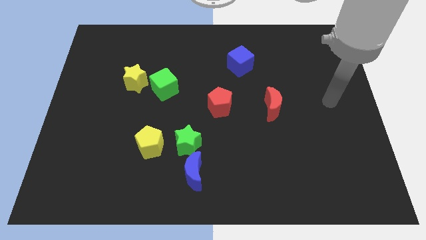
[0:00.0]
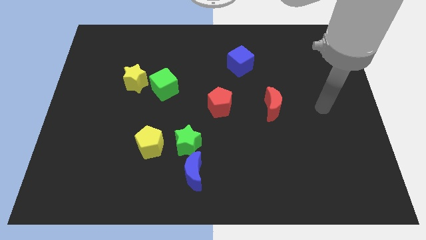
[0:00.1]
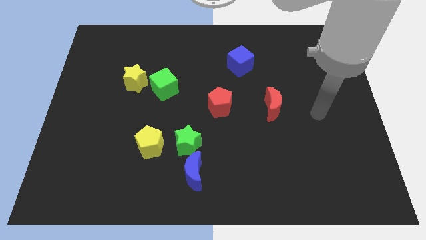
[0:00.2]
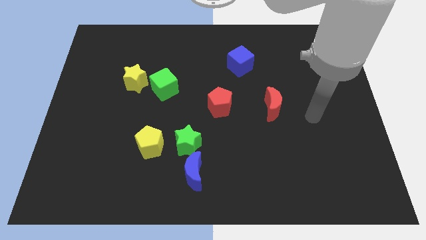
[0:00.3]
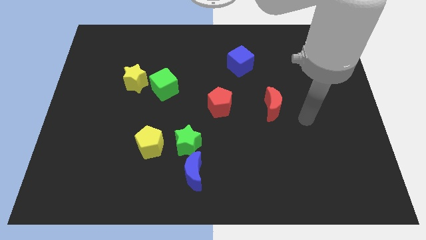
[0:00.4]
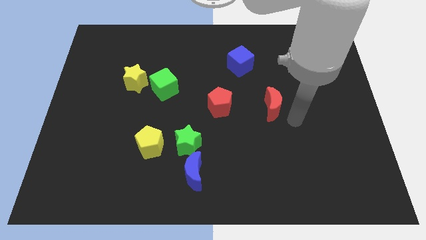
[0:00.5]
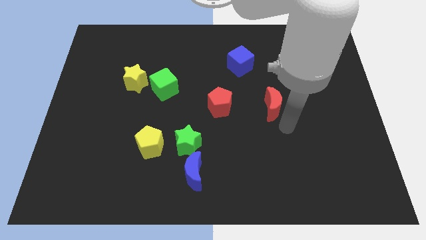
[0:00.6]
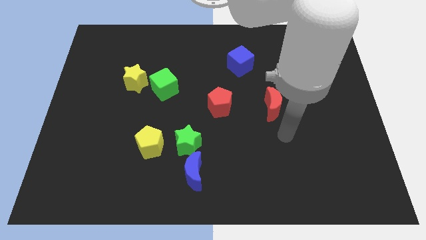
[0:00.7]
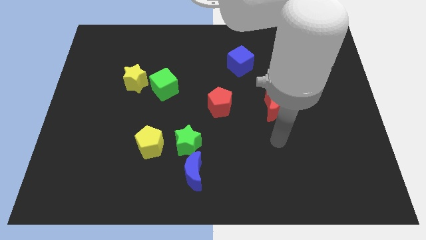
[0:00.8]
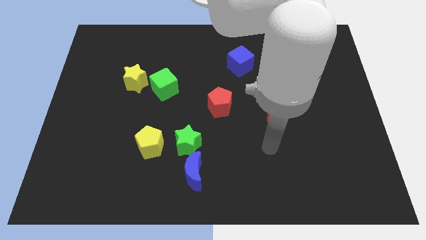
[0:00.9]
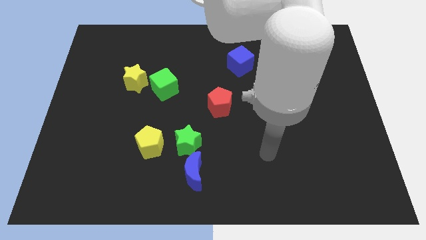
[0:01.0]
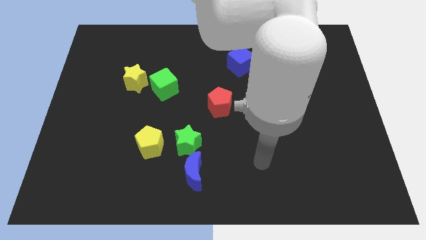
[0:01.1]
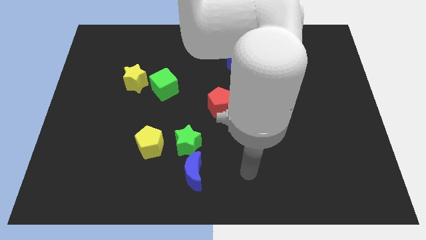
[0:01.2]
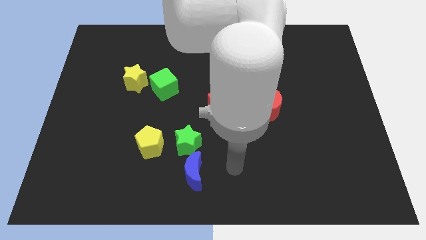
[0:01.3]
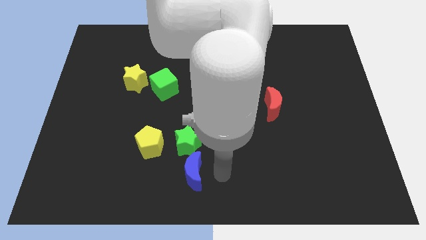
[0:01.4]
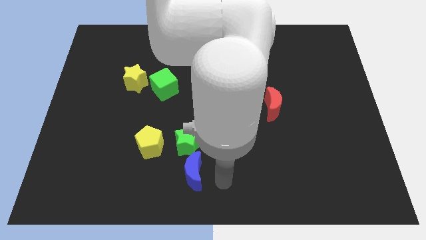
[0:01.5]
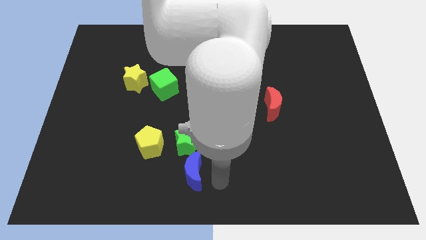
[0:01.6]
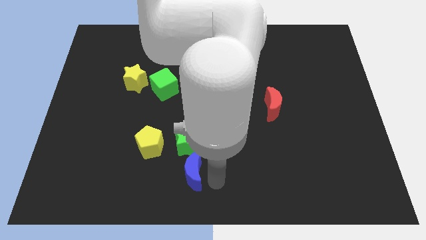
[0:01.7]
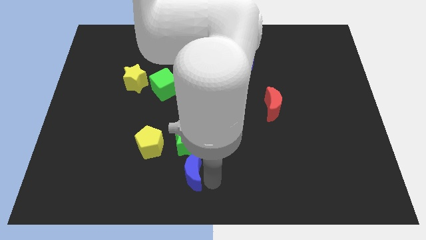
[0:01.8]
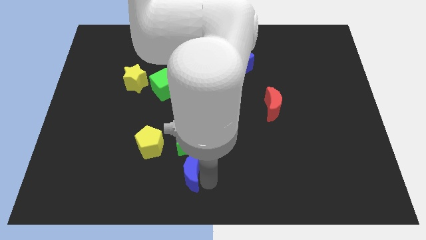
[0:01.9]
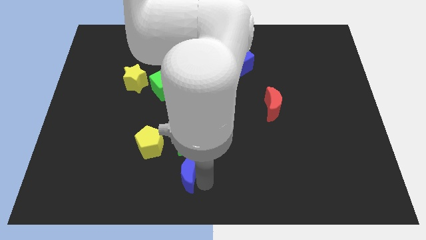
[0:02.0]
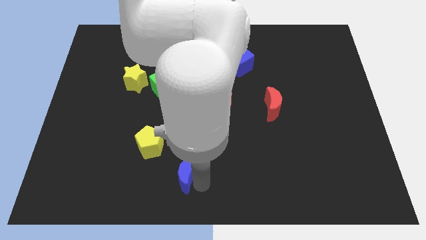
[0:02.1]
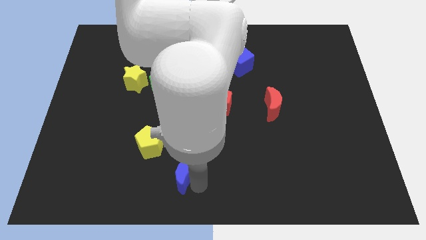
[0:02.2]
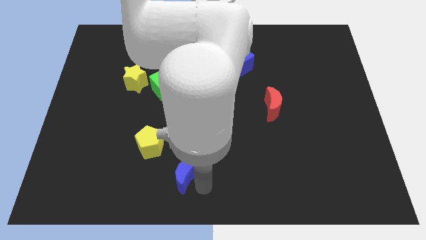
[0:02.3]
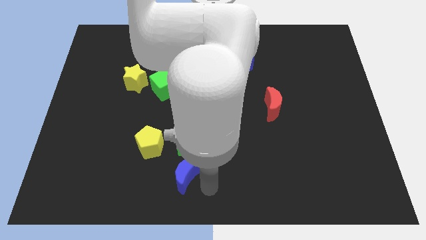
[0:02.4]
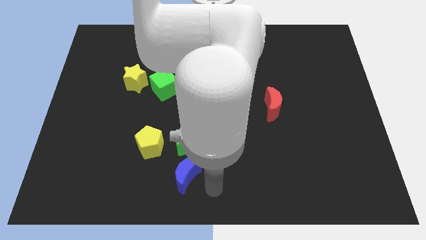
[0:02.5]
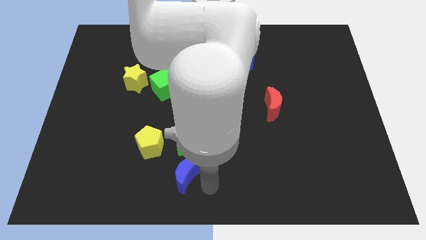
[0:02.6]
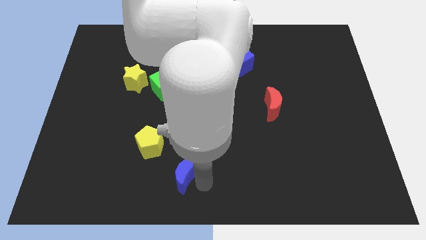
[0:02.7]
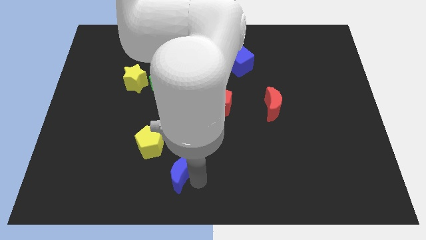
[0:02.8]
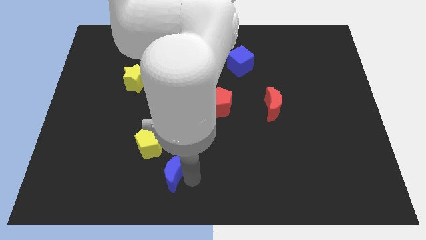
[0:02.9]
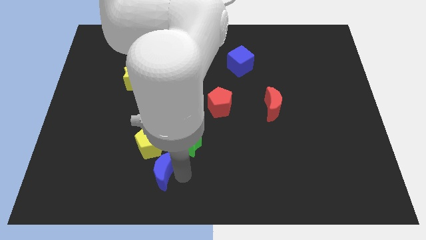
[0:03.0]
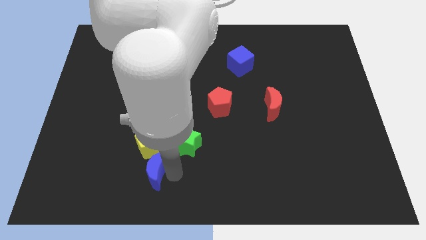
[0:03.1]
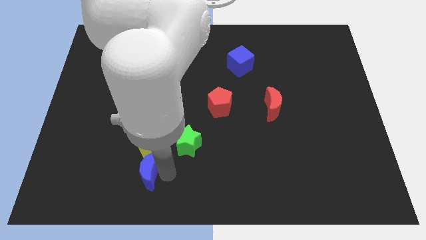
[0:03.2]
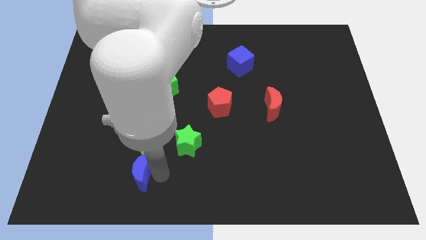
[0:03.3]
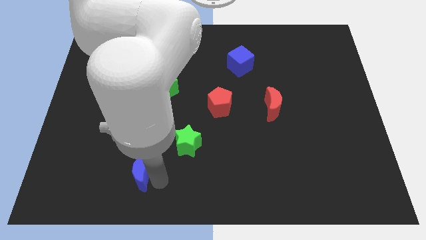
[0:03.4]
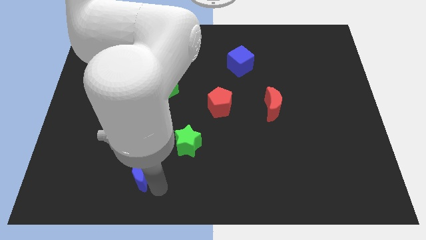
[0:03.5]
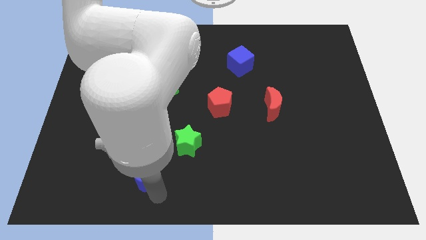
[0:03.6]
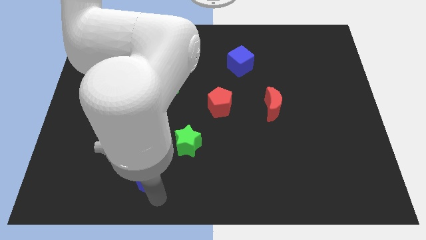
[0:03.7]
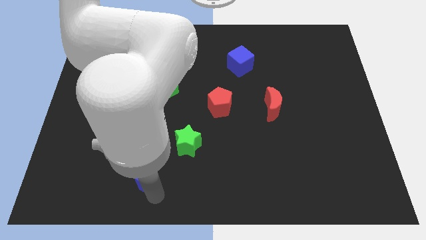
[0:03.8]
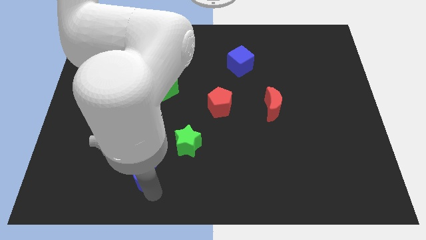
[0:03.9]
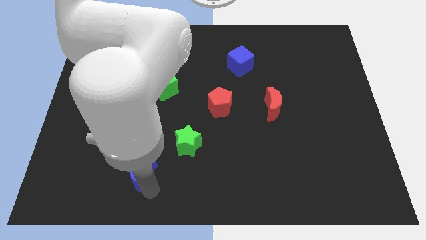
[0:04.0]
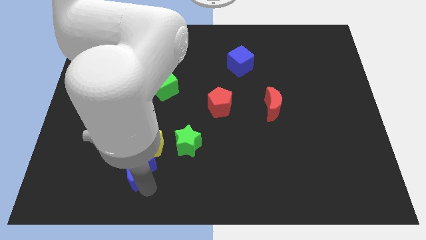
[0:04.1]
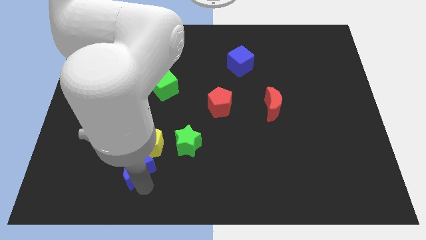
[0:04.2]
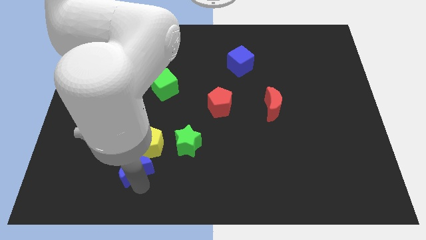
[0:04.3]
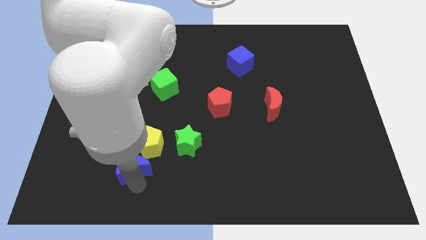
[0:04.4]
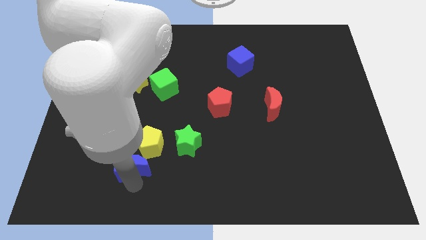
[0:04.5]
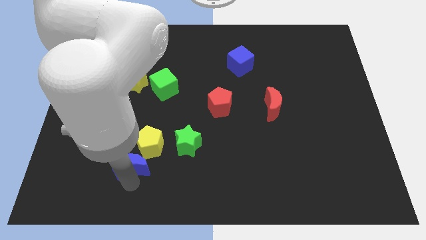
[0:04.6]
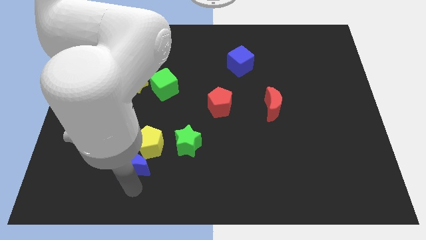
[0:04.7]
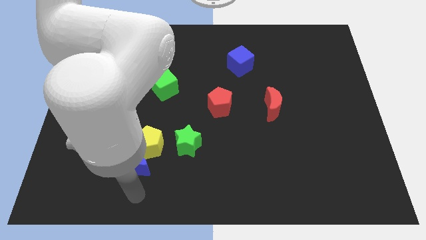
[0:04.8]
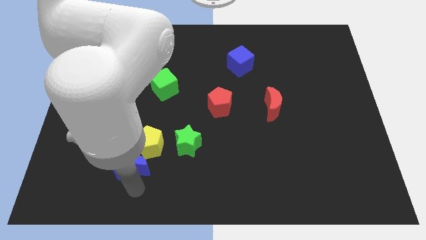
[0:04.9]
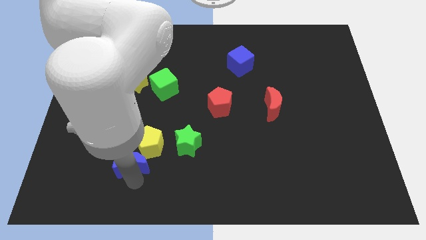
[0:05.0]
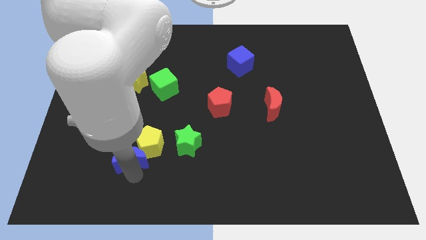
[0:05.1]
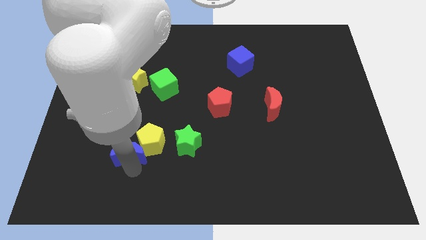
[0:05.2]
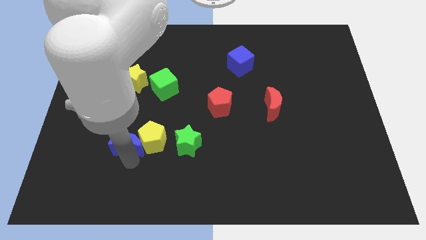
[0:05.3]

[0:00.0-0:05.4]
push the blue moon diagonally up and to the left of the yellow pentagon

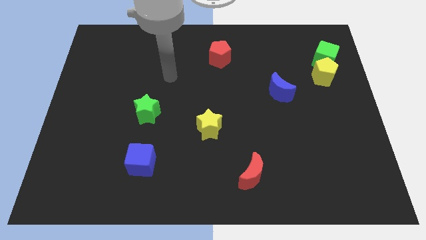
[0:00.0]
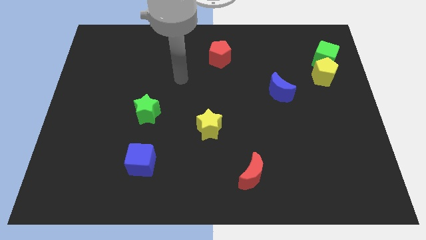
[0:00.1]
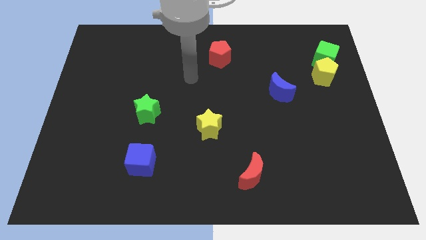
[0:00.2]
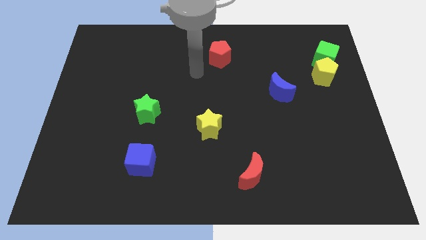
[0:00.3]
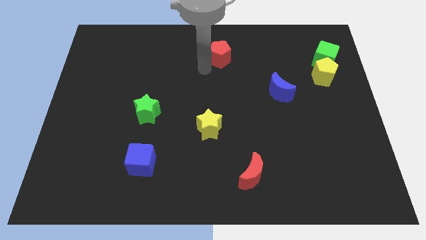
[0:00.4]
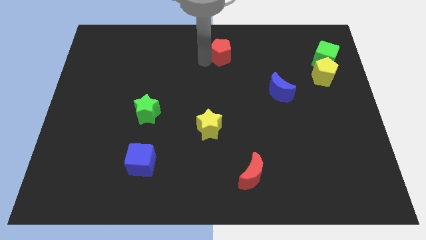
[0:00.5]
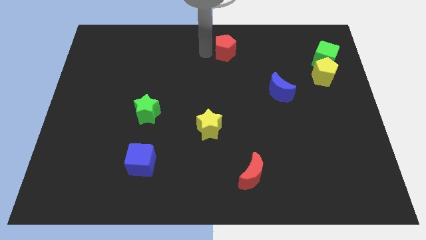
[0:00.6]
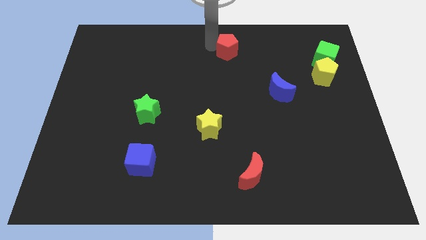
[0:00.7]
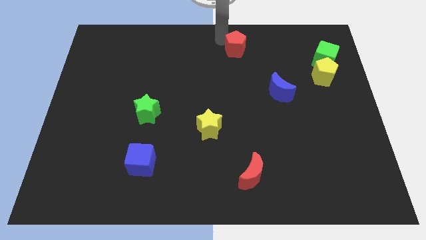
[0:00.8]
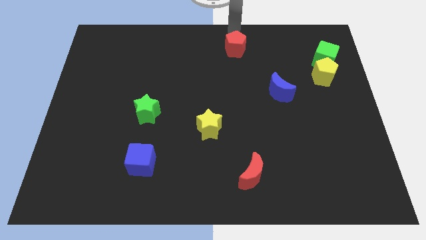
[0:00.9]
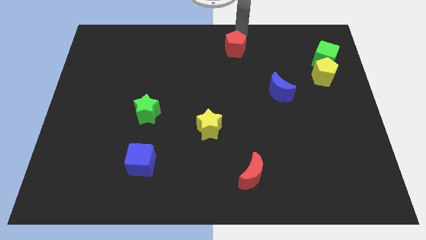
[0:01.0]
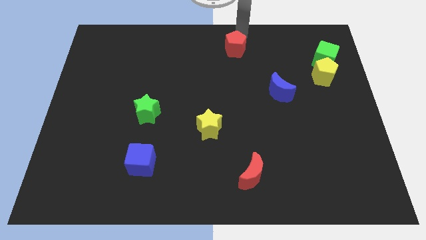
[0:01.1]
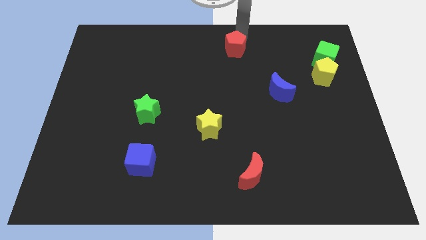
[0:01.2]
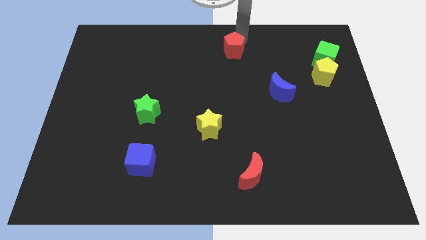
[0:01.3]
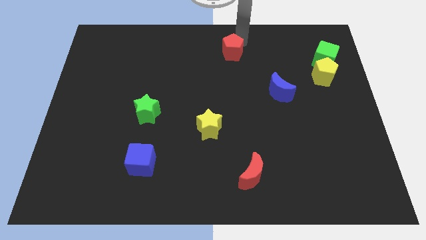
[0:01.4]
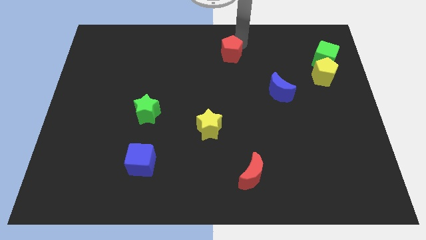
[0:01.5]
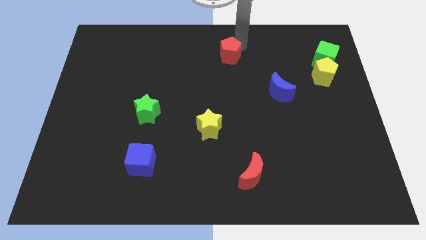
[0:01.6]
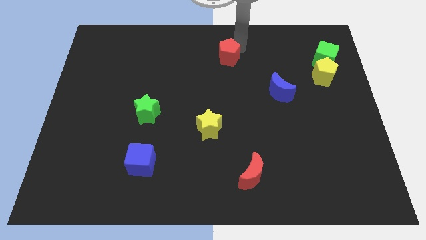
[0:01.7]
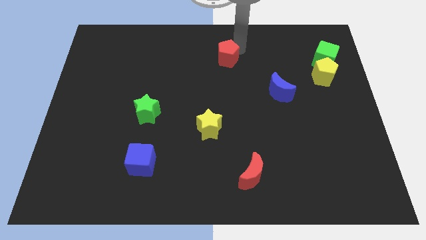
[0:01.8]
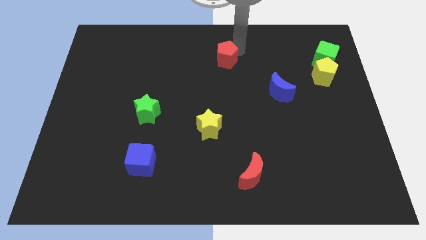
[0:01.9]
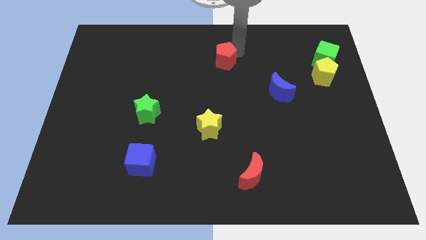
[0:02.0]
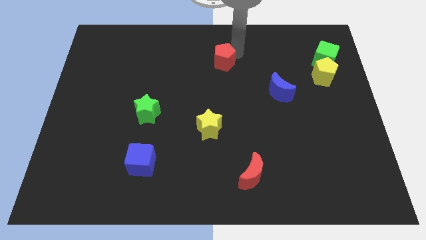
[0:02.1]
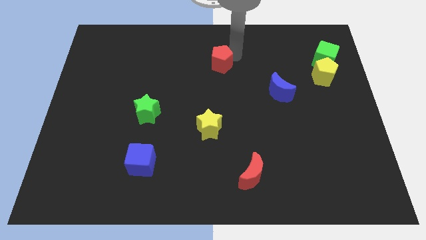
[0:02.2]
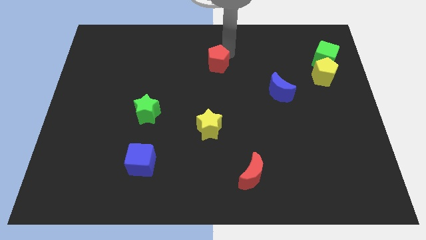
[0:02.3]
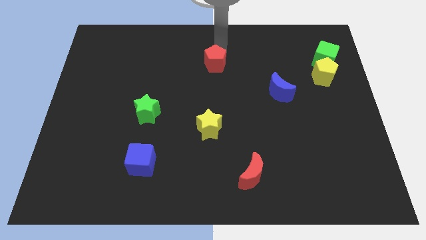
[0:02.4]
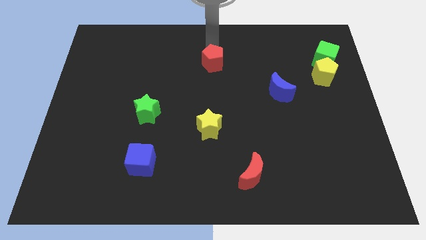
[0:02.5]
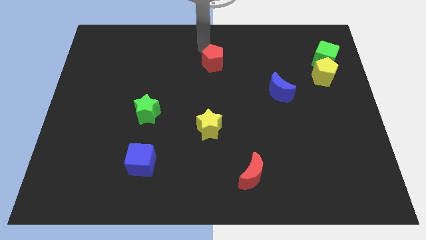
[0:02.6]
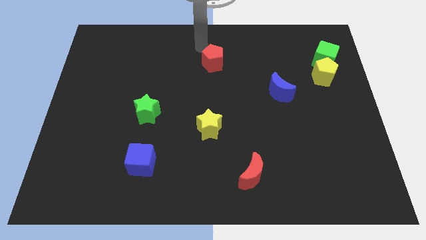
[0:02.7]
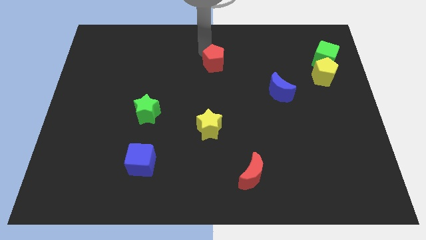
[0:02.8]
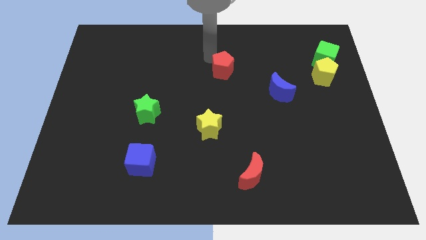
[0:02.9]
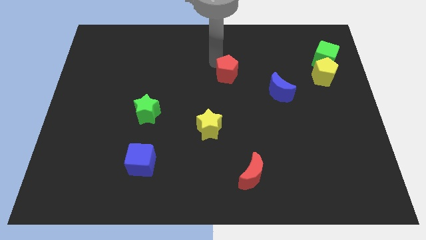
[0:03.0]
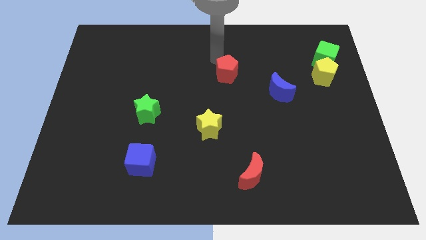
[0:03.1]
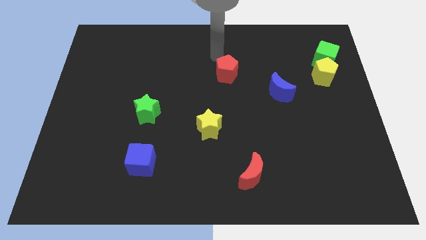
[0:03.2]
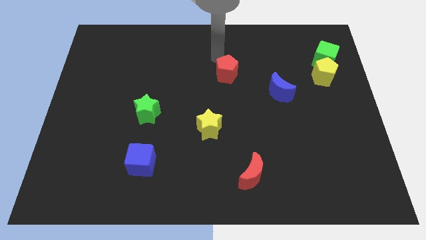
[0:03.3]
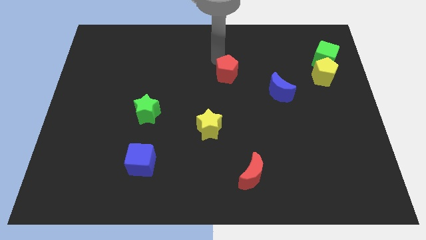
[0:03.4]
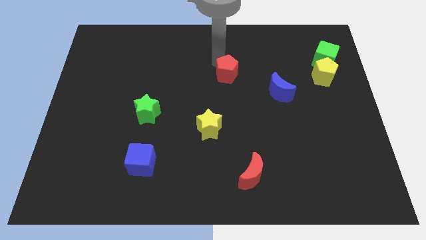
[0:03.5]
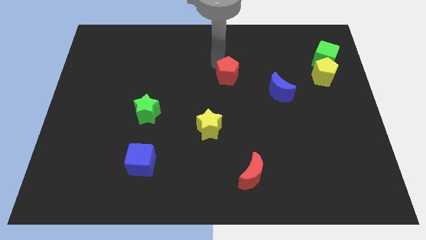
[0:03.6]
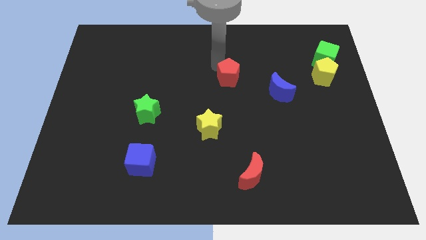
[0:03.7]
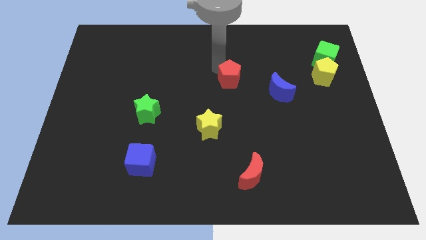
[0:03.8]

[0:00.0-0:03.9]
put the red pentagon to the left of the blue moon
